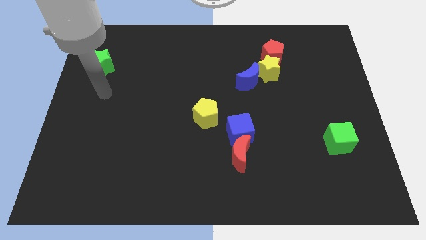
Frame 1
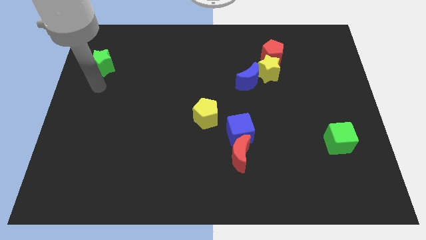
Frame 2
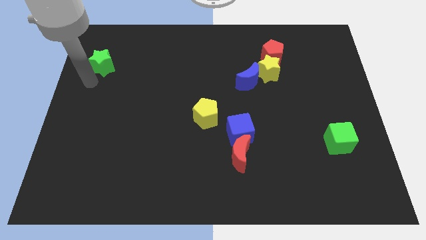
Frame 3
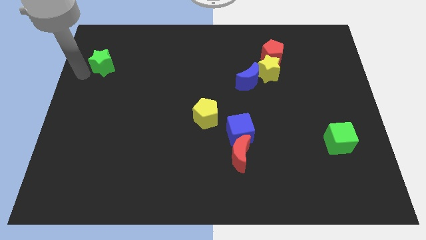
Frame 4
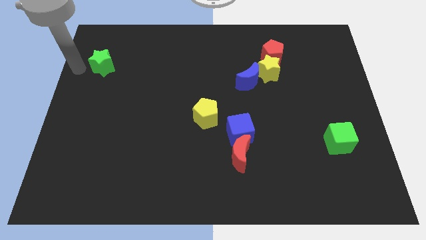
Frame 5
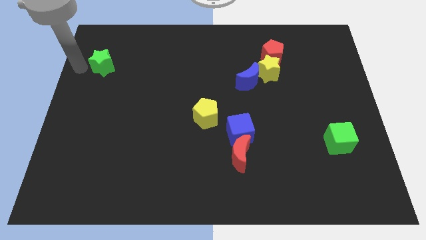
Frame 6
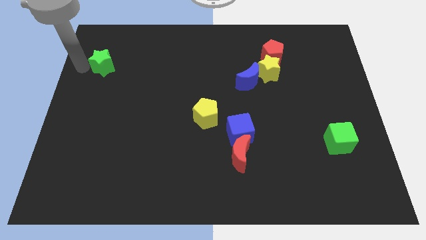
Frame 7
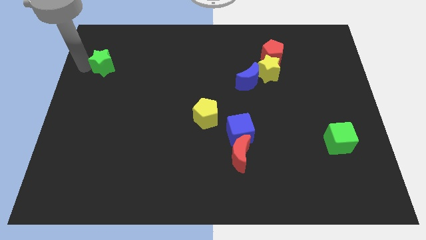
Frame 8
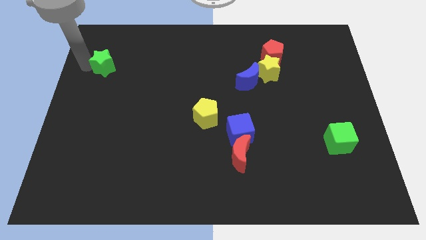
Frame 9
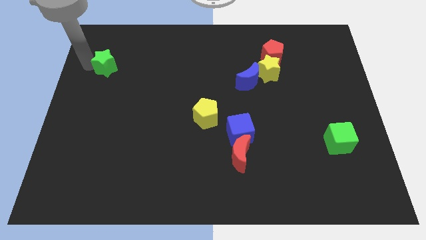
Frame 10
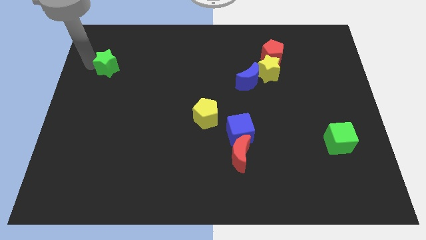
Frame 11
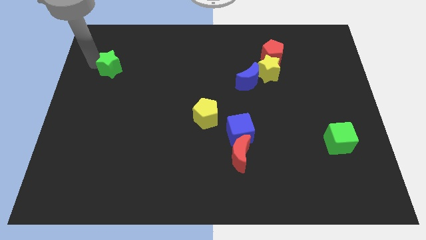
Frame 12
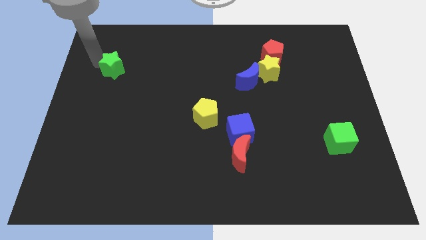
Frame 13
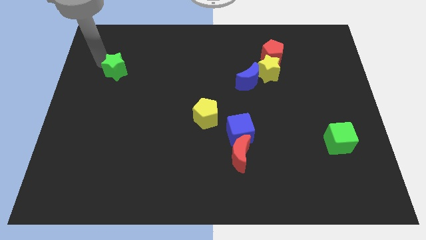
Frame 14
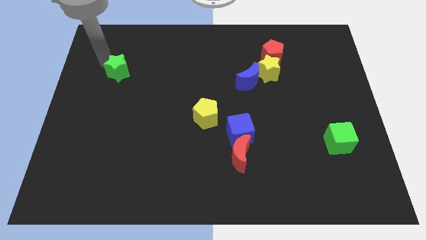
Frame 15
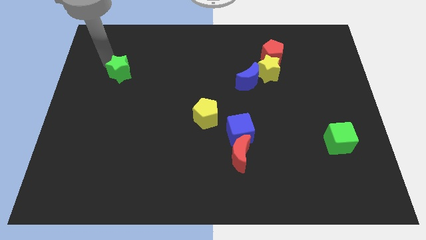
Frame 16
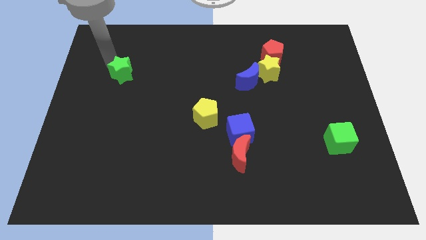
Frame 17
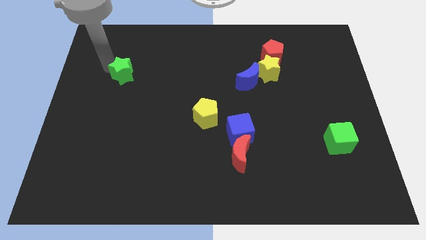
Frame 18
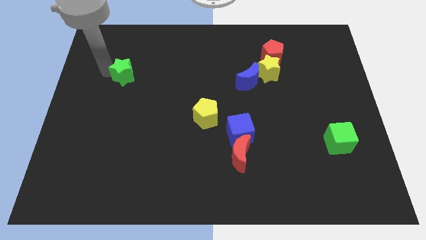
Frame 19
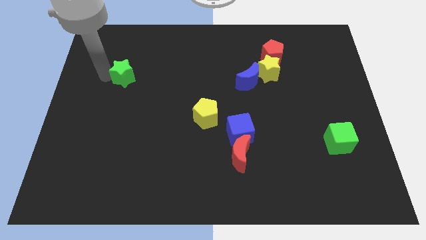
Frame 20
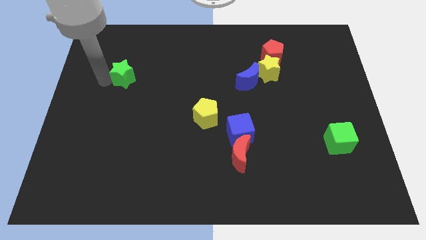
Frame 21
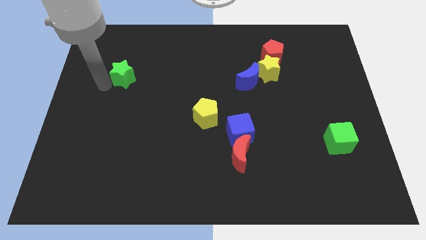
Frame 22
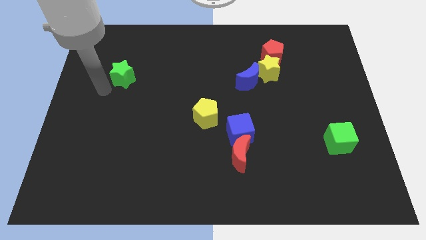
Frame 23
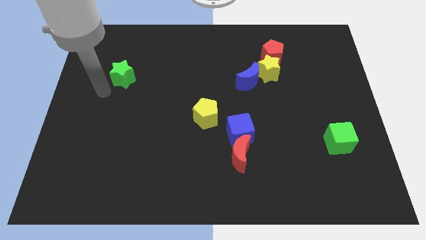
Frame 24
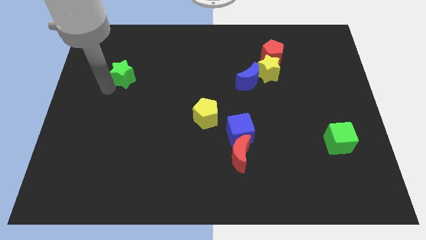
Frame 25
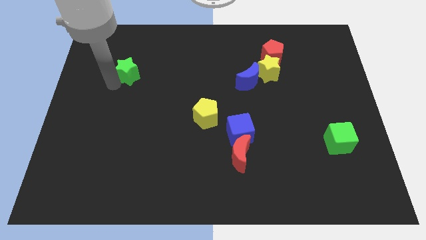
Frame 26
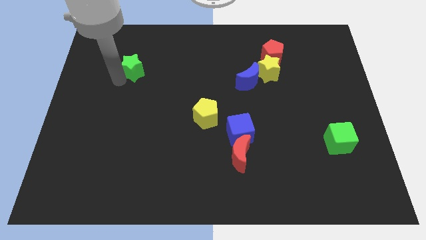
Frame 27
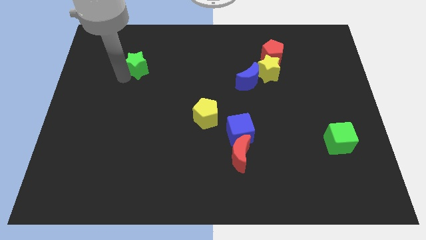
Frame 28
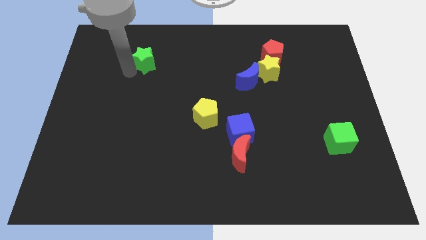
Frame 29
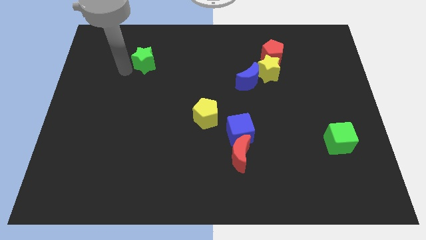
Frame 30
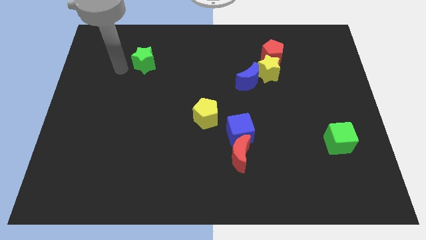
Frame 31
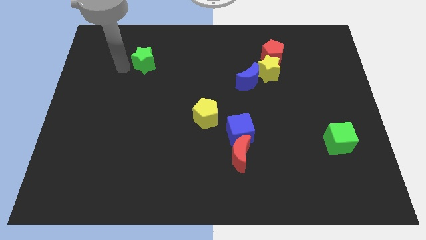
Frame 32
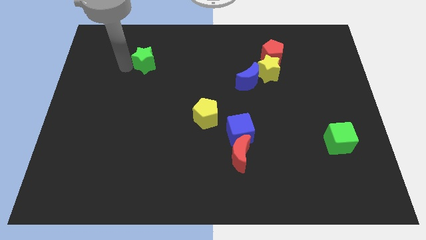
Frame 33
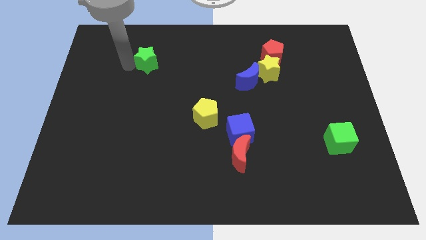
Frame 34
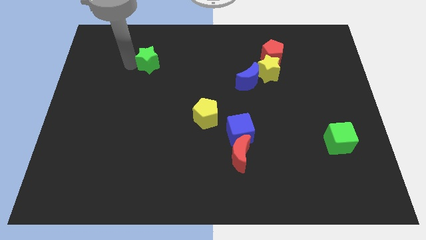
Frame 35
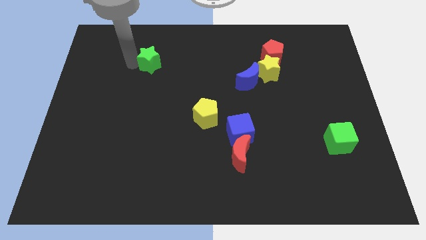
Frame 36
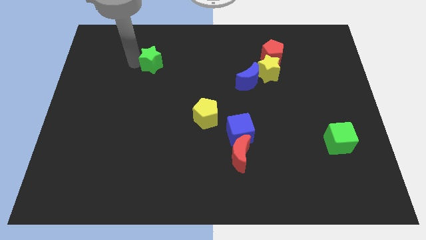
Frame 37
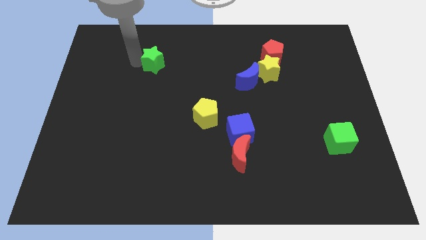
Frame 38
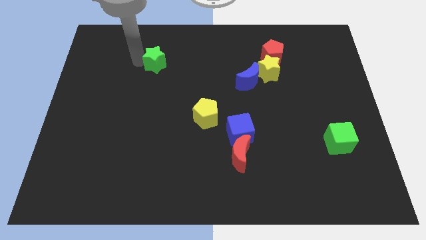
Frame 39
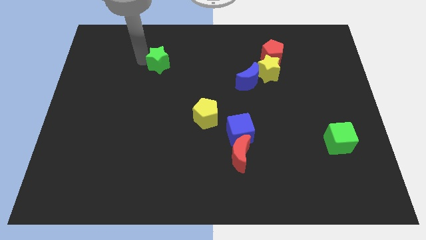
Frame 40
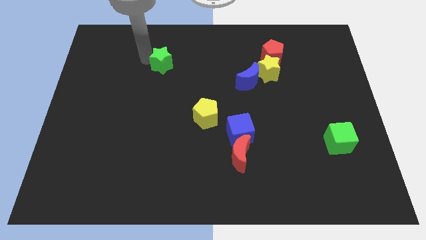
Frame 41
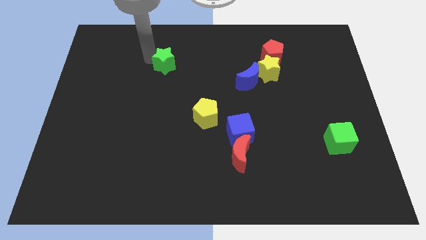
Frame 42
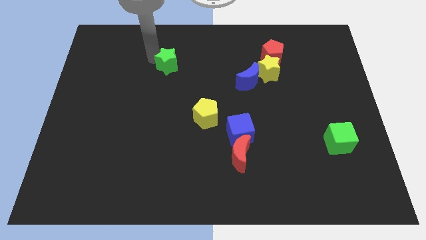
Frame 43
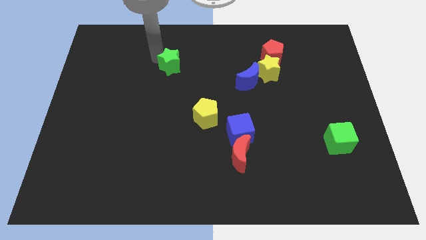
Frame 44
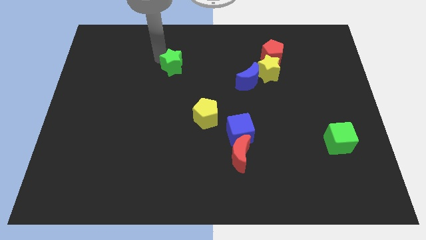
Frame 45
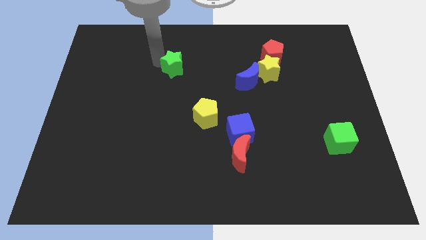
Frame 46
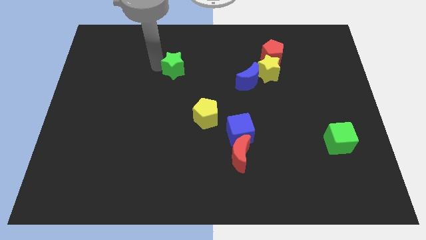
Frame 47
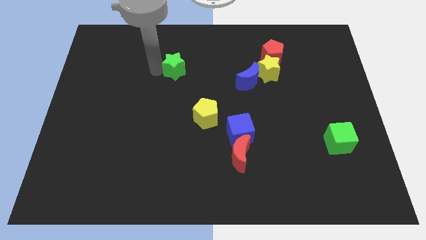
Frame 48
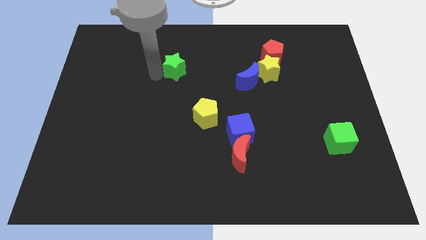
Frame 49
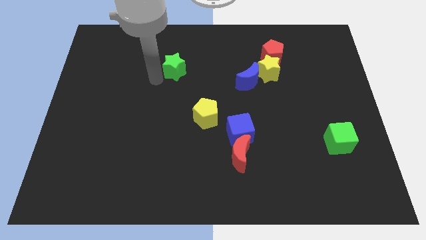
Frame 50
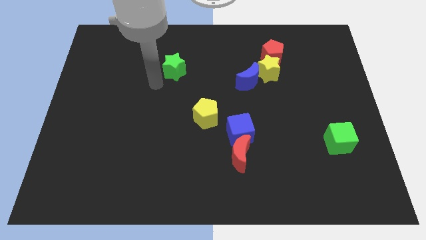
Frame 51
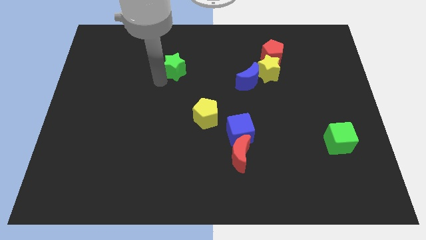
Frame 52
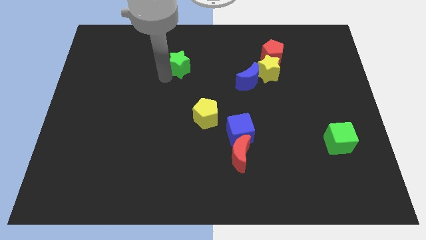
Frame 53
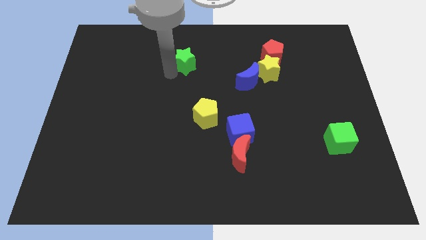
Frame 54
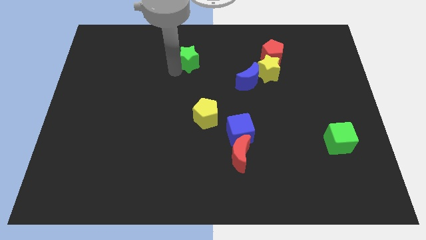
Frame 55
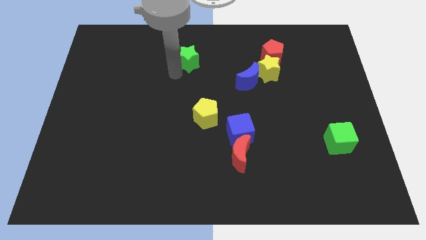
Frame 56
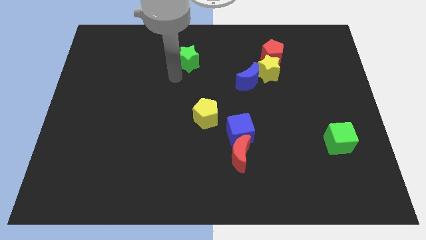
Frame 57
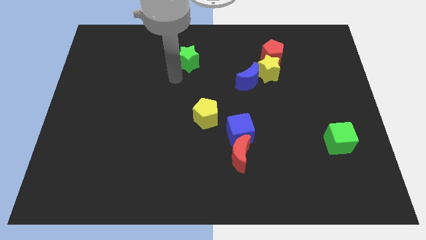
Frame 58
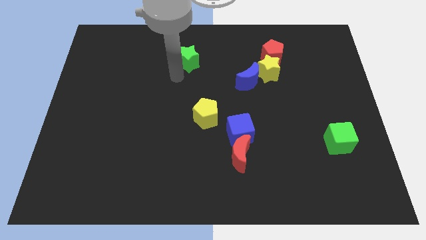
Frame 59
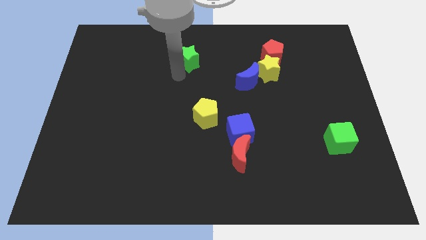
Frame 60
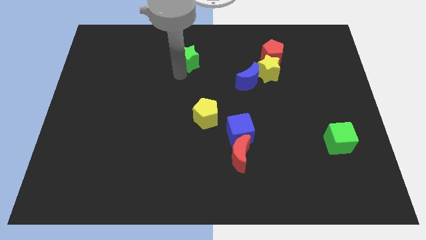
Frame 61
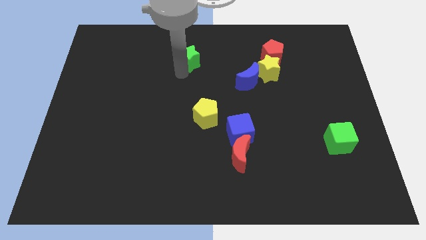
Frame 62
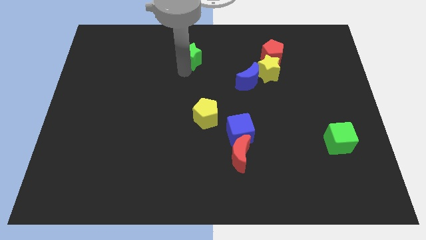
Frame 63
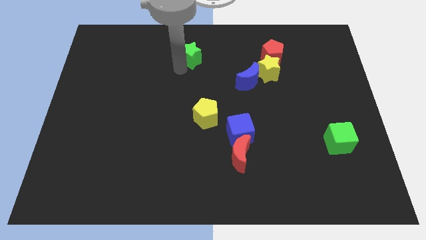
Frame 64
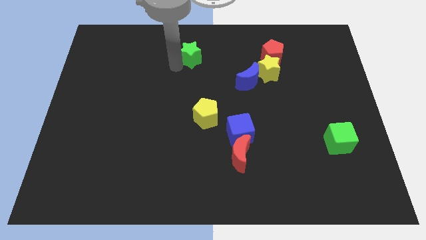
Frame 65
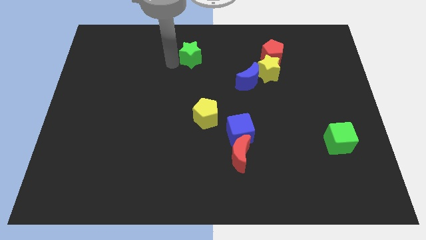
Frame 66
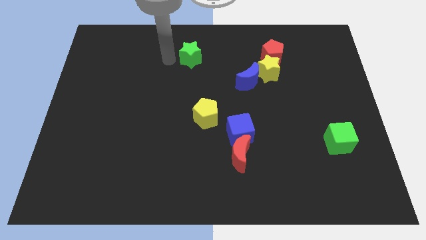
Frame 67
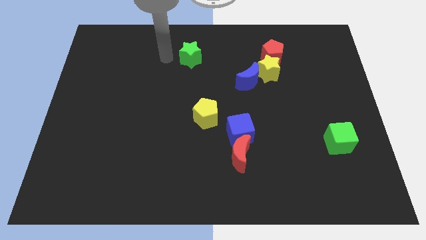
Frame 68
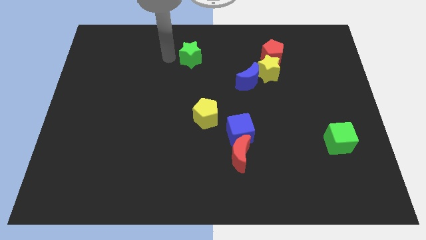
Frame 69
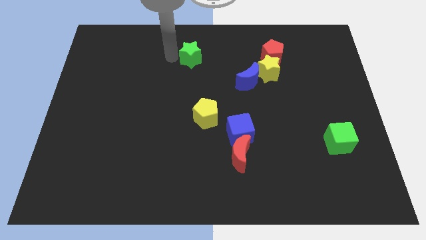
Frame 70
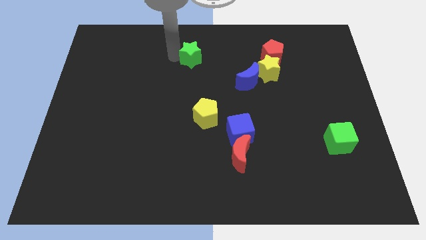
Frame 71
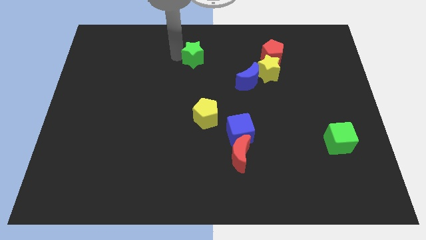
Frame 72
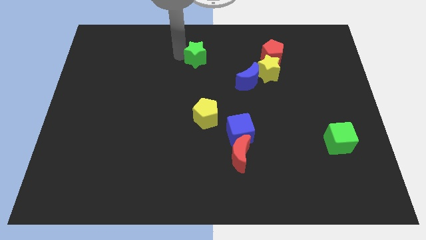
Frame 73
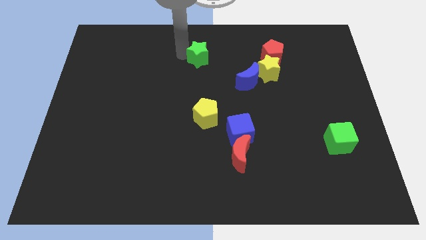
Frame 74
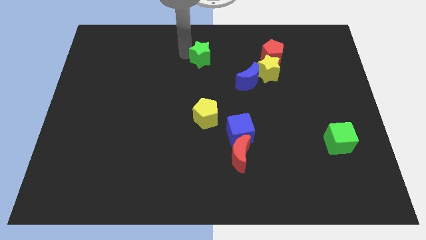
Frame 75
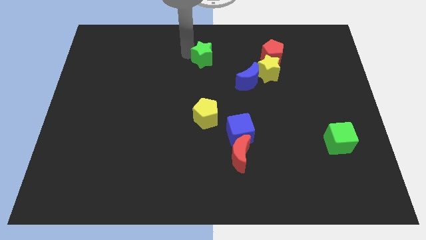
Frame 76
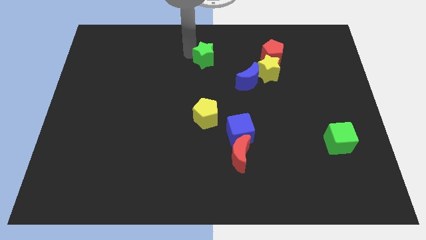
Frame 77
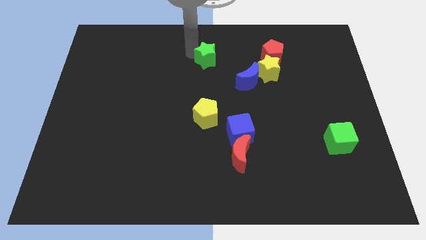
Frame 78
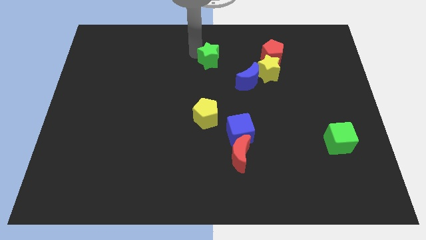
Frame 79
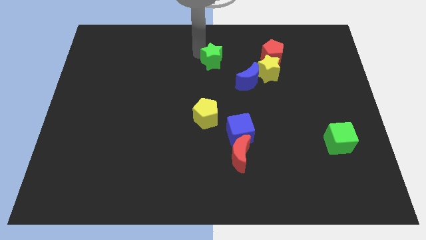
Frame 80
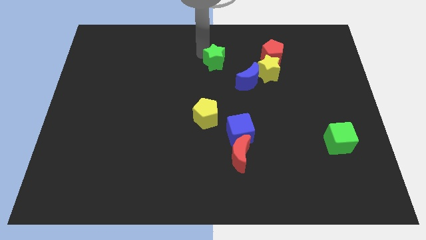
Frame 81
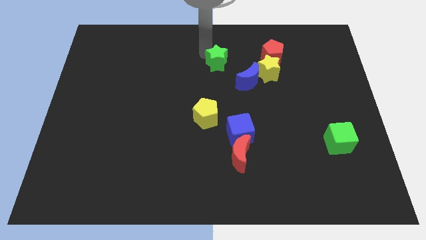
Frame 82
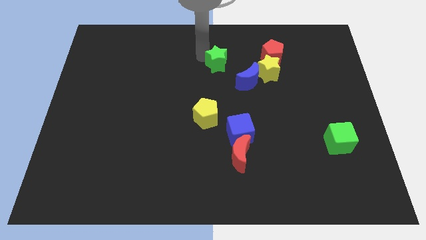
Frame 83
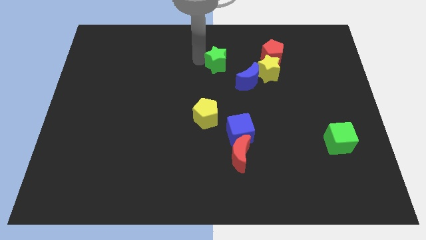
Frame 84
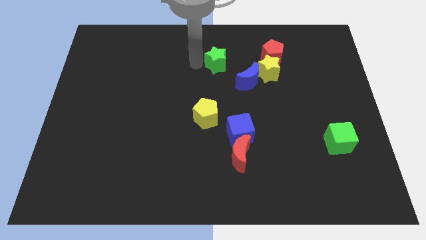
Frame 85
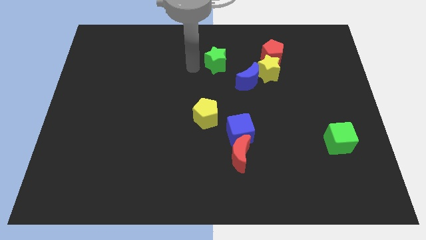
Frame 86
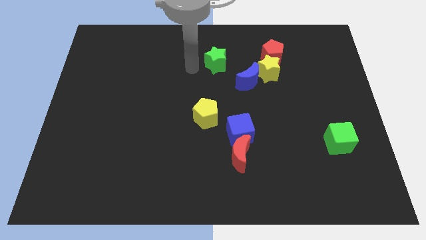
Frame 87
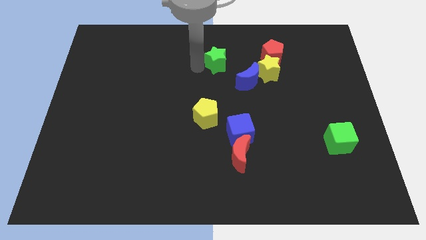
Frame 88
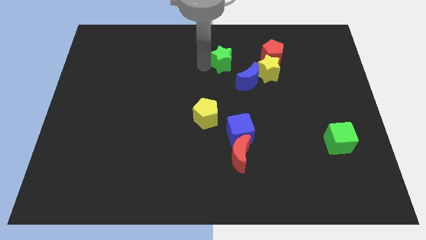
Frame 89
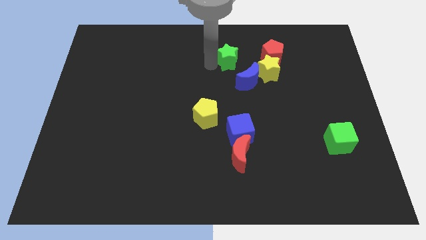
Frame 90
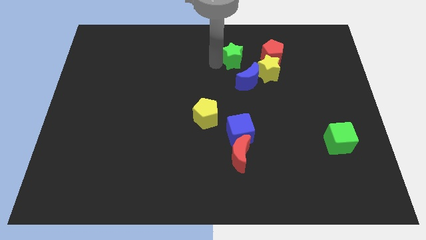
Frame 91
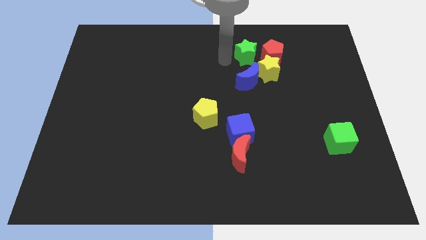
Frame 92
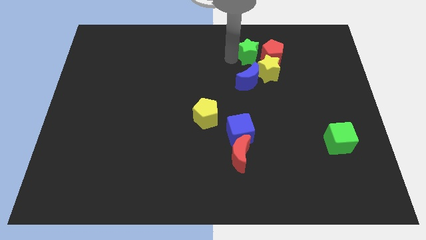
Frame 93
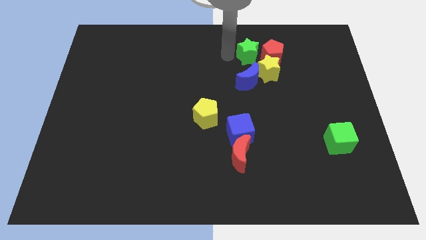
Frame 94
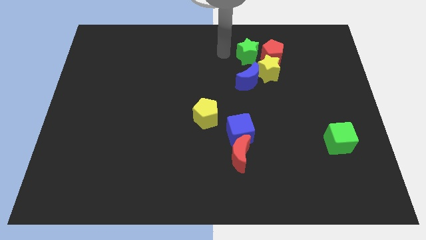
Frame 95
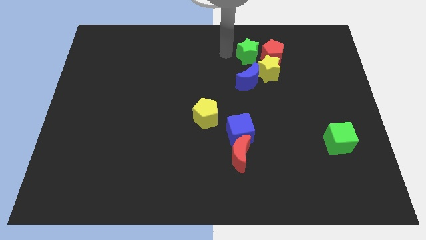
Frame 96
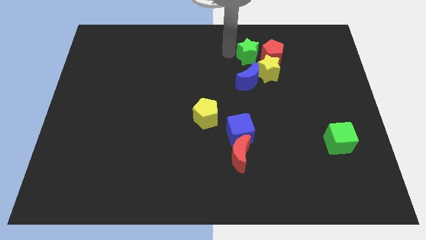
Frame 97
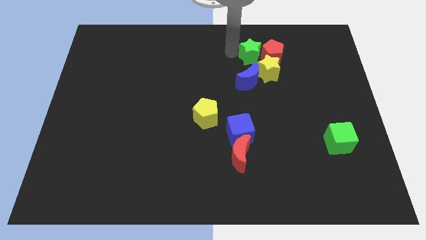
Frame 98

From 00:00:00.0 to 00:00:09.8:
push the green star close to the red pentagon
